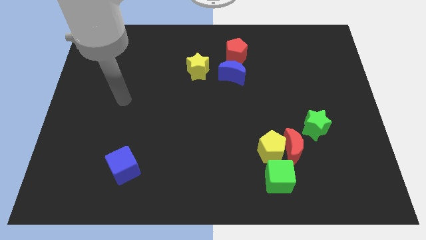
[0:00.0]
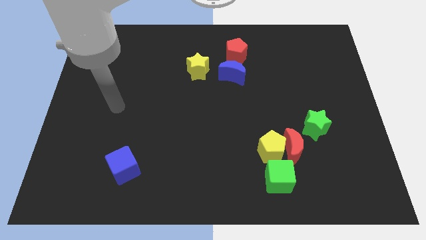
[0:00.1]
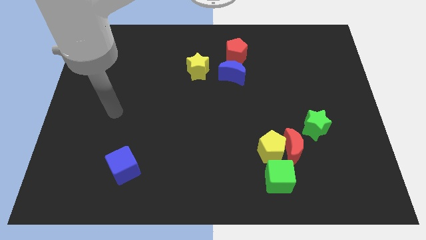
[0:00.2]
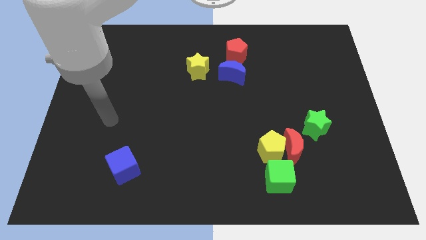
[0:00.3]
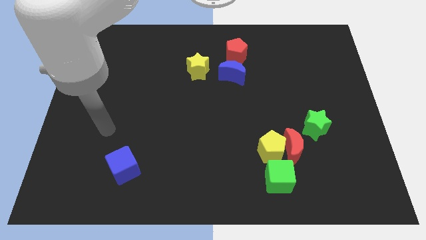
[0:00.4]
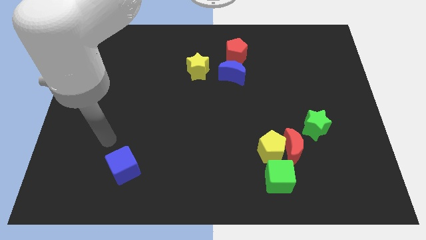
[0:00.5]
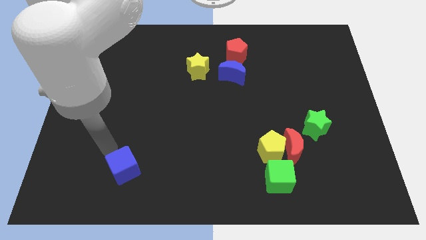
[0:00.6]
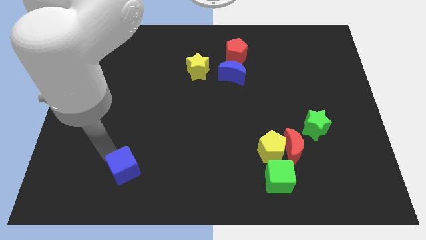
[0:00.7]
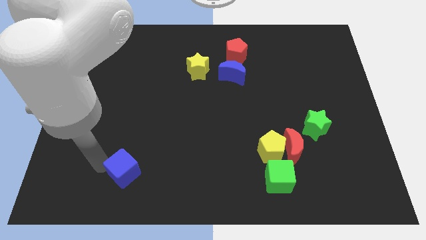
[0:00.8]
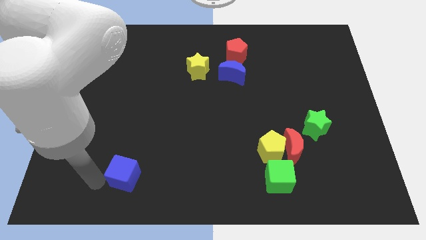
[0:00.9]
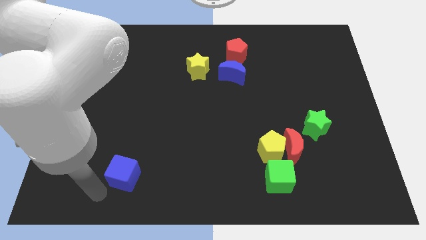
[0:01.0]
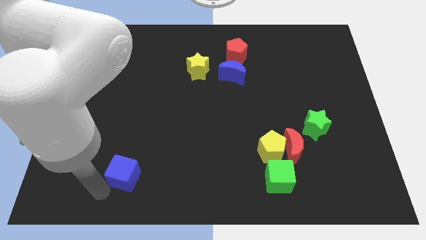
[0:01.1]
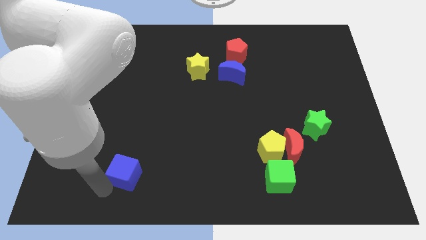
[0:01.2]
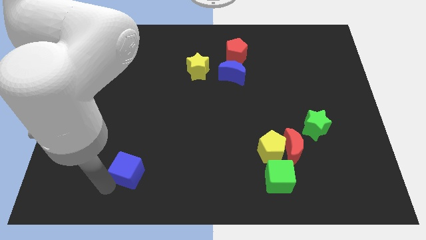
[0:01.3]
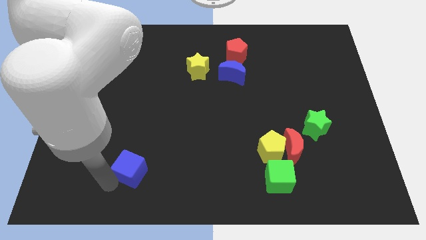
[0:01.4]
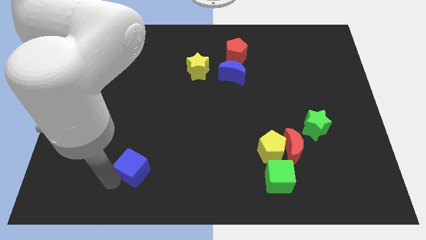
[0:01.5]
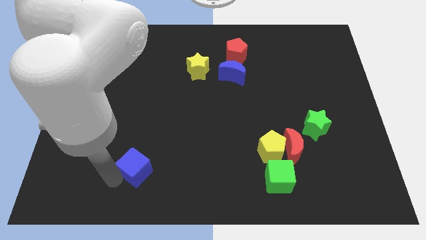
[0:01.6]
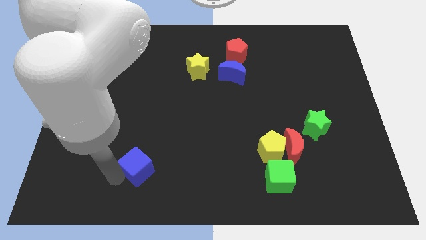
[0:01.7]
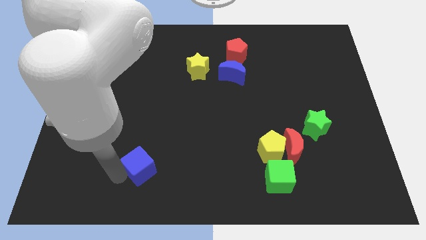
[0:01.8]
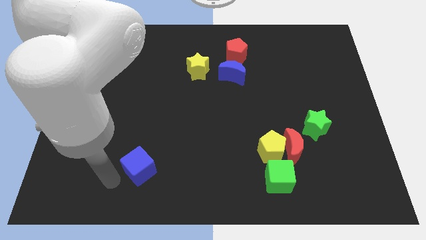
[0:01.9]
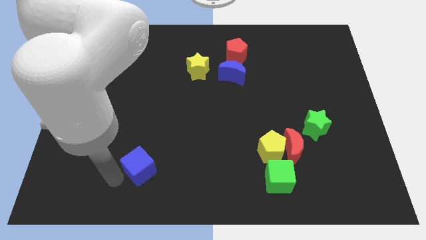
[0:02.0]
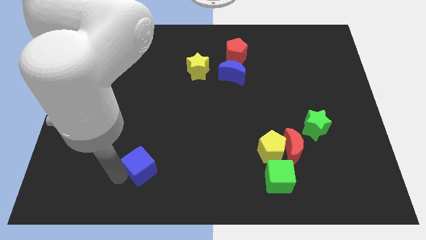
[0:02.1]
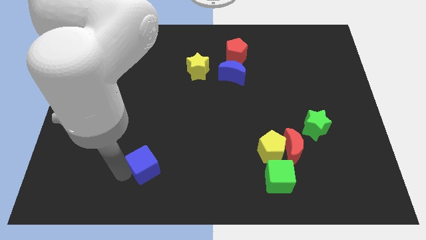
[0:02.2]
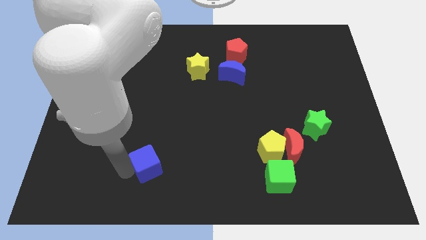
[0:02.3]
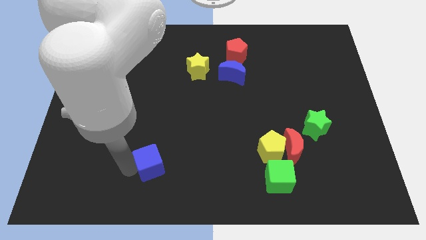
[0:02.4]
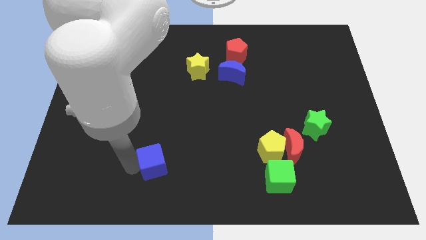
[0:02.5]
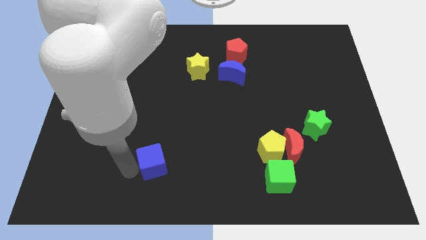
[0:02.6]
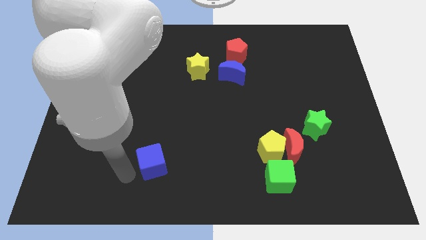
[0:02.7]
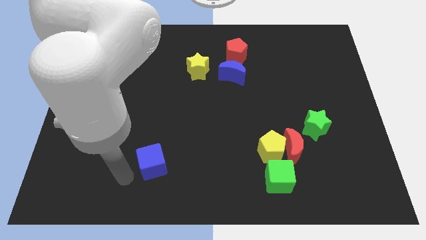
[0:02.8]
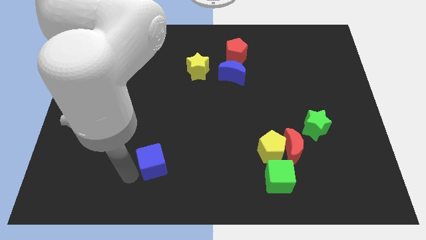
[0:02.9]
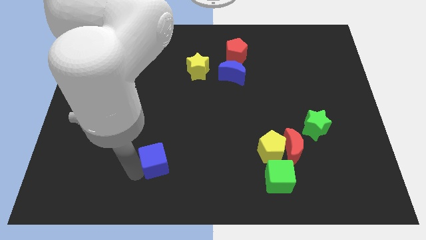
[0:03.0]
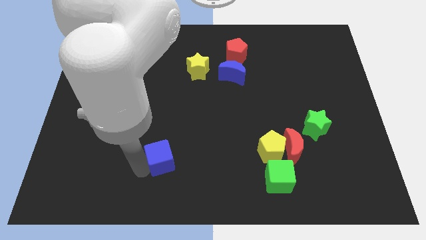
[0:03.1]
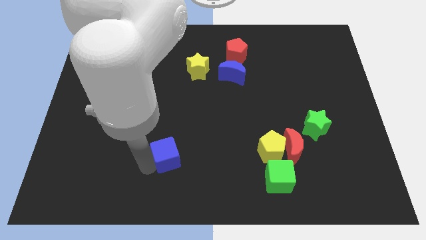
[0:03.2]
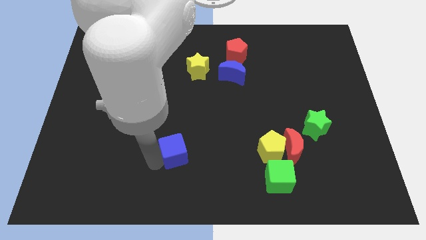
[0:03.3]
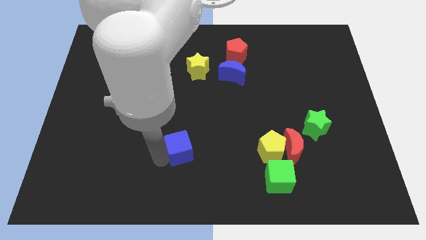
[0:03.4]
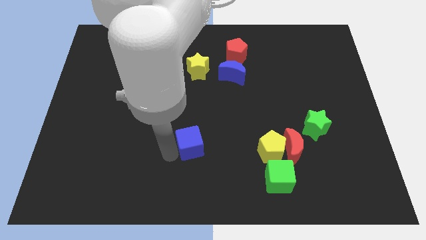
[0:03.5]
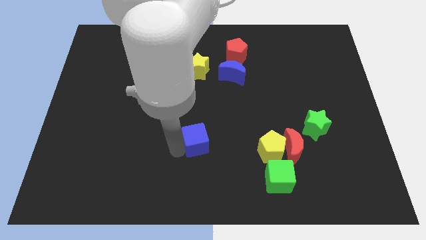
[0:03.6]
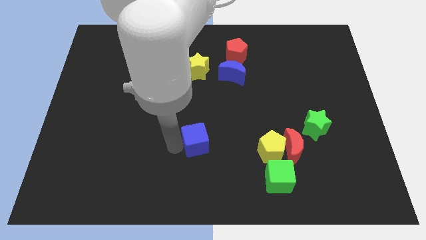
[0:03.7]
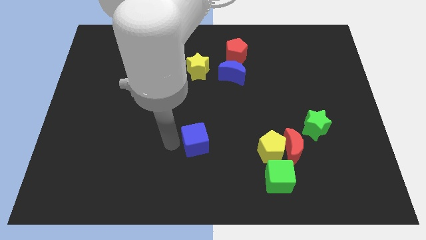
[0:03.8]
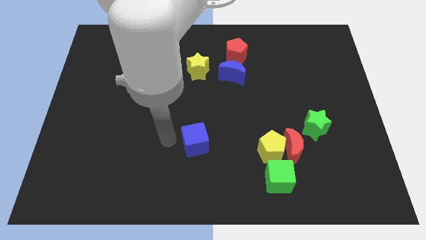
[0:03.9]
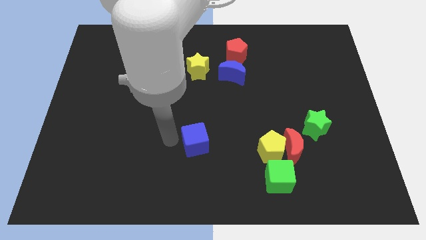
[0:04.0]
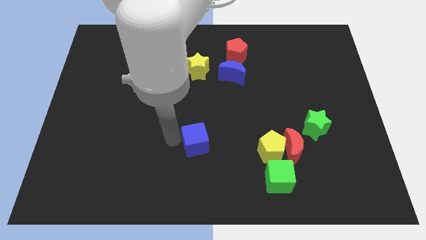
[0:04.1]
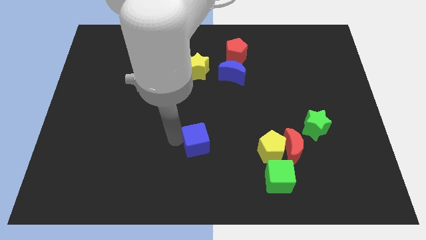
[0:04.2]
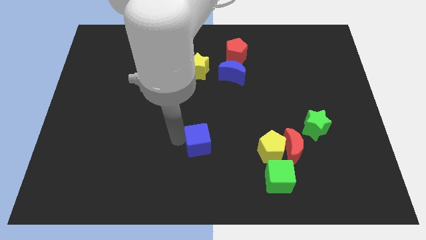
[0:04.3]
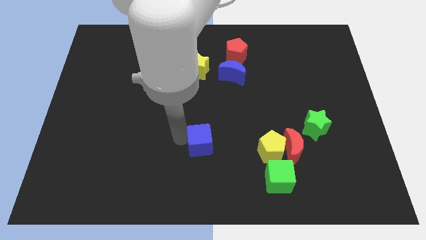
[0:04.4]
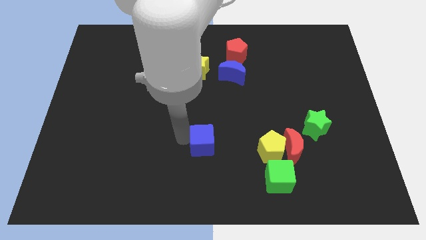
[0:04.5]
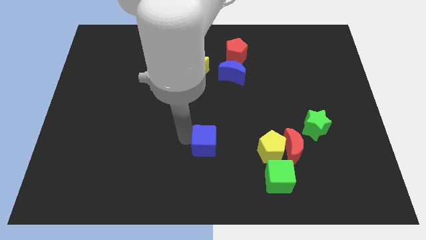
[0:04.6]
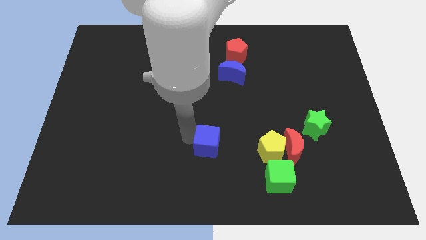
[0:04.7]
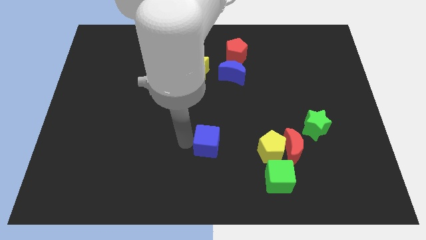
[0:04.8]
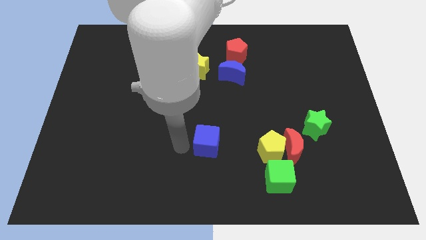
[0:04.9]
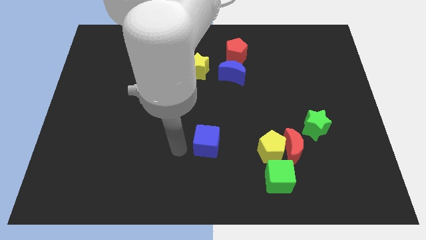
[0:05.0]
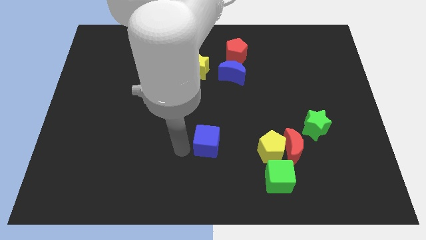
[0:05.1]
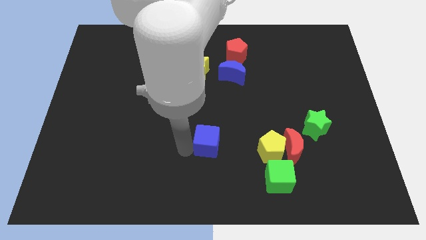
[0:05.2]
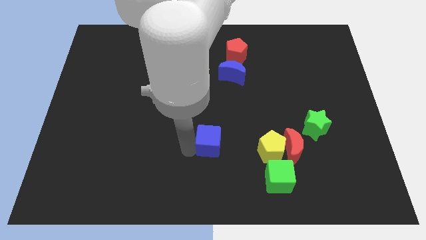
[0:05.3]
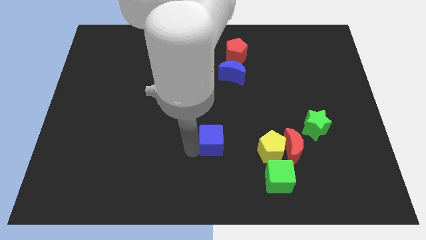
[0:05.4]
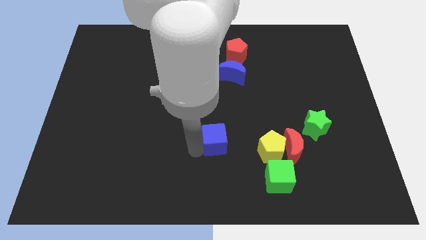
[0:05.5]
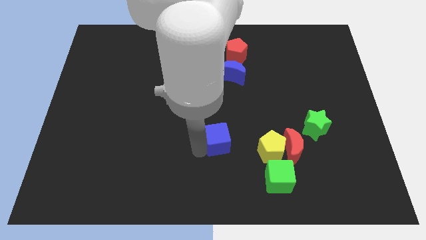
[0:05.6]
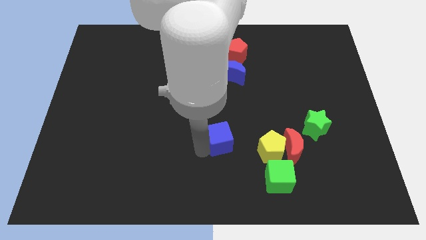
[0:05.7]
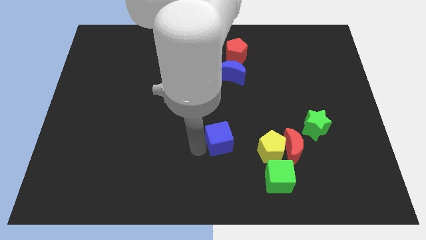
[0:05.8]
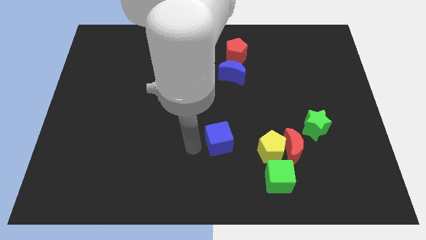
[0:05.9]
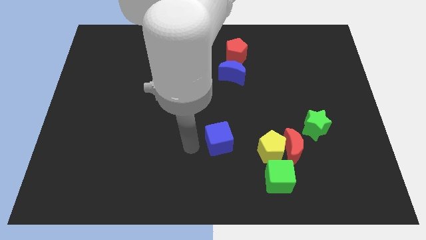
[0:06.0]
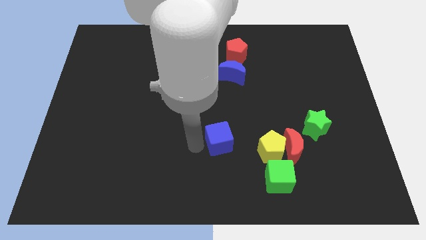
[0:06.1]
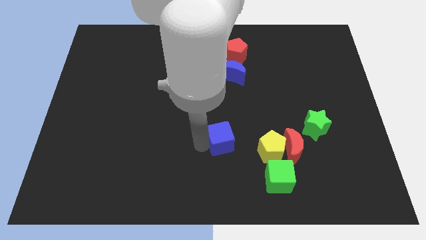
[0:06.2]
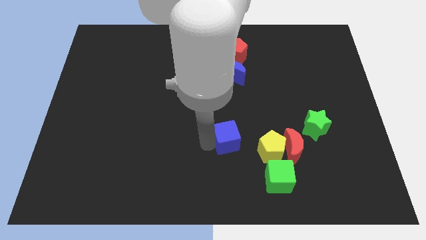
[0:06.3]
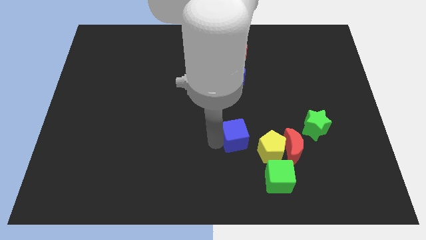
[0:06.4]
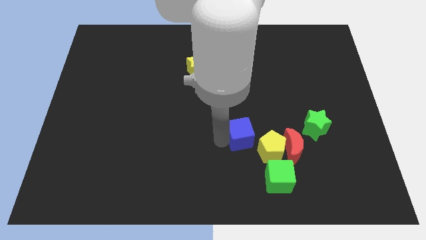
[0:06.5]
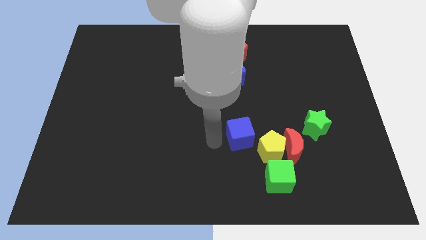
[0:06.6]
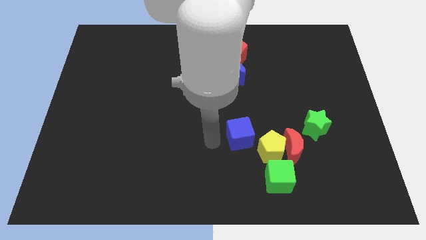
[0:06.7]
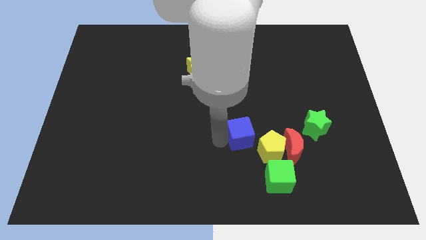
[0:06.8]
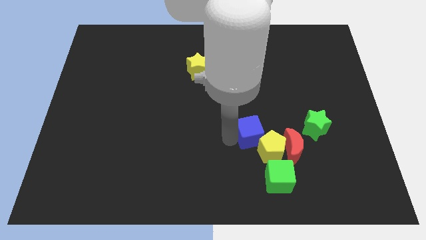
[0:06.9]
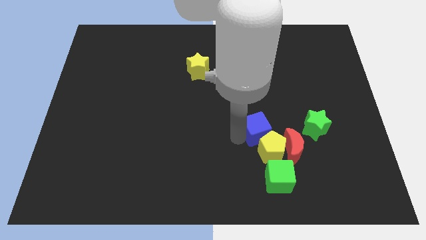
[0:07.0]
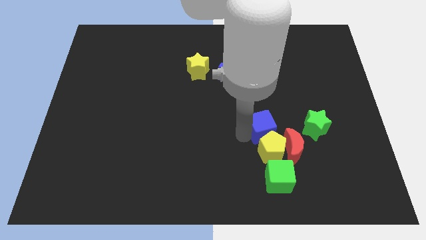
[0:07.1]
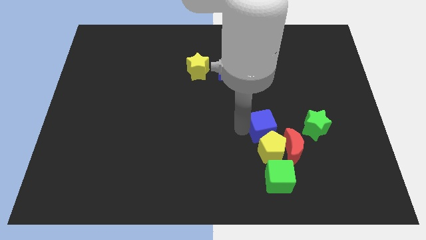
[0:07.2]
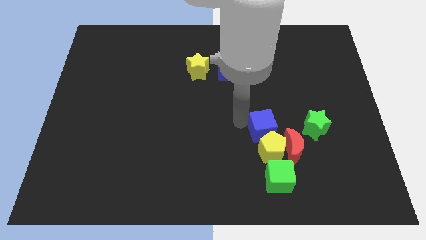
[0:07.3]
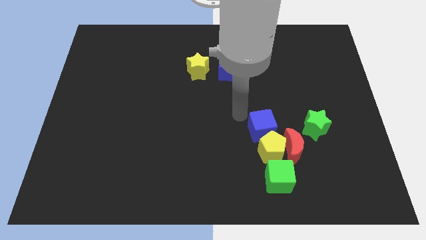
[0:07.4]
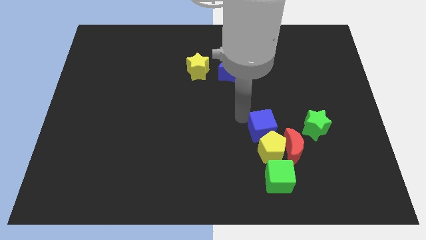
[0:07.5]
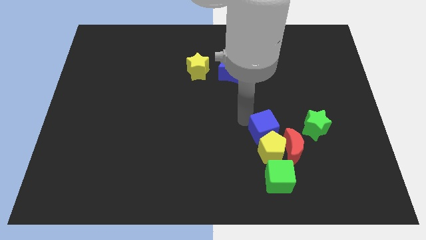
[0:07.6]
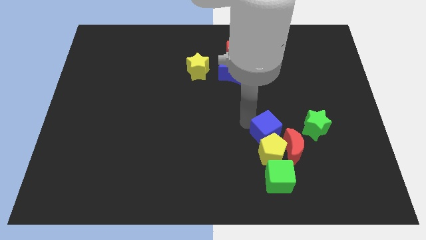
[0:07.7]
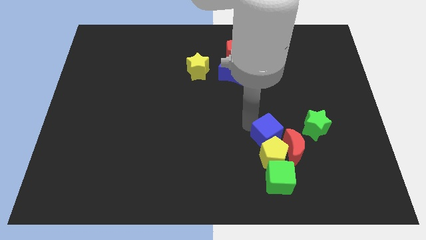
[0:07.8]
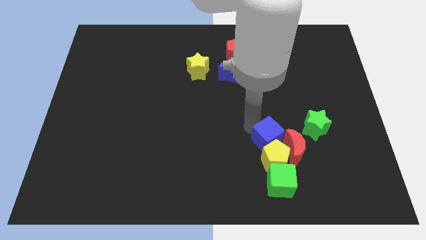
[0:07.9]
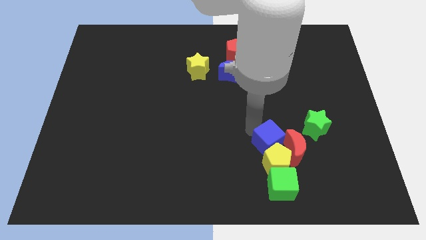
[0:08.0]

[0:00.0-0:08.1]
move the blue cube next to the red moon
